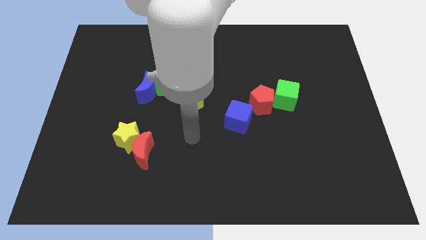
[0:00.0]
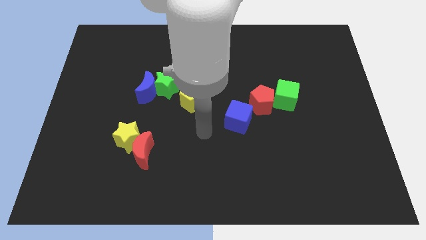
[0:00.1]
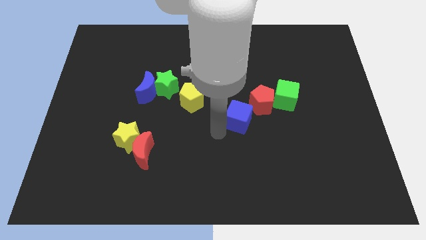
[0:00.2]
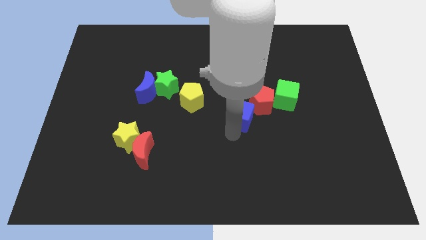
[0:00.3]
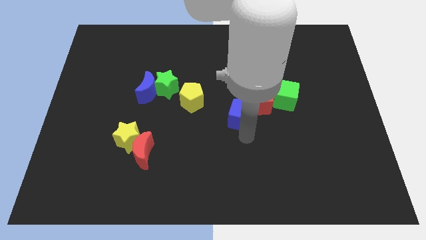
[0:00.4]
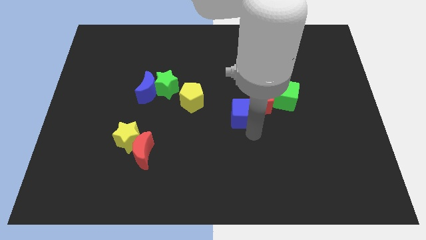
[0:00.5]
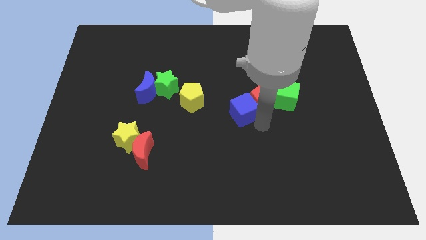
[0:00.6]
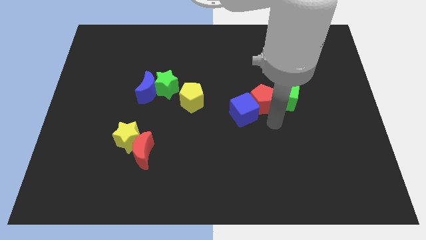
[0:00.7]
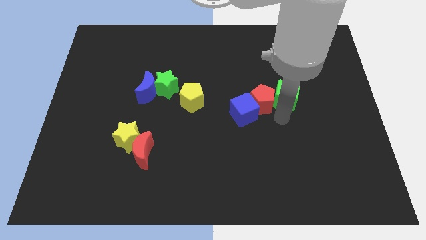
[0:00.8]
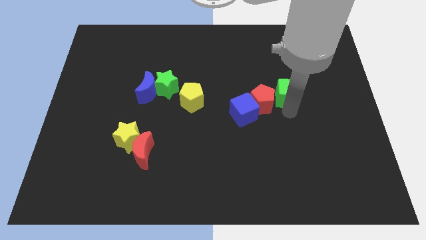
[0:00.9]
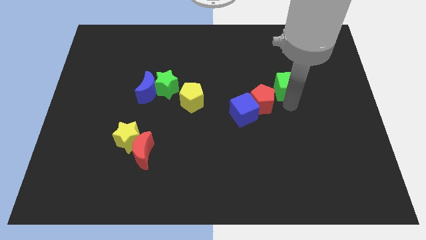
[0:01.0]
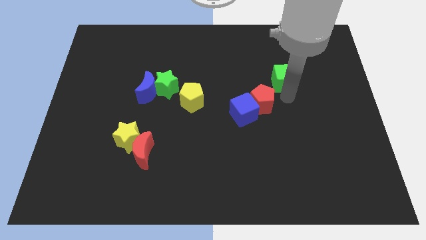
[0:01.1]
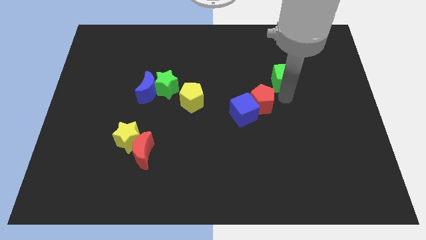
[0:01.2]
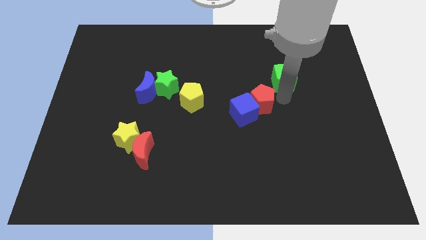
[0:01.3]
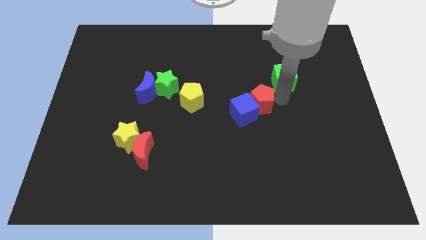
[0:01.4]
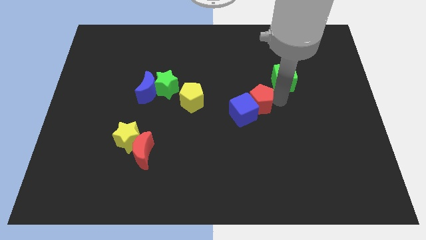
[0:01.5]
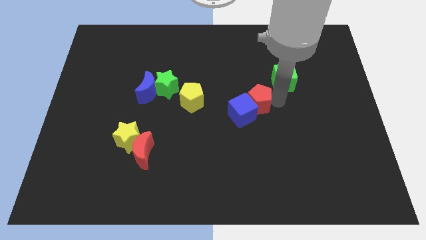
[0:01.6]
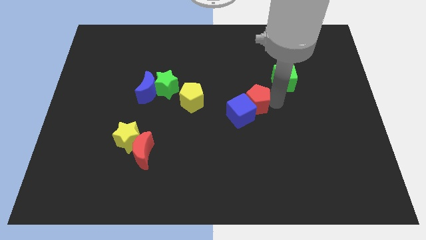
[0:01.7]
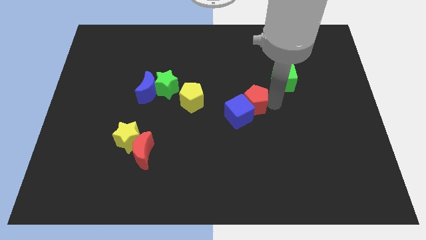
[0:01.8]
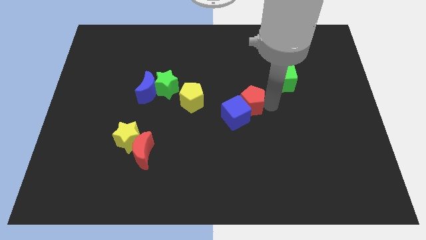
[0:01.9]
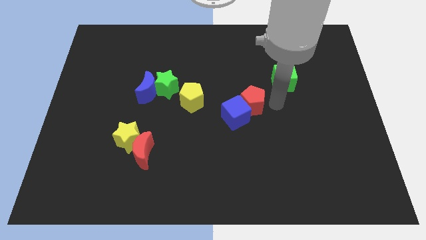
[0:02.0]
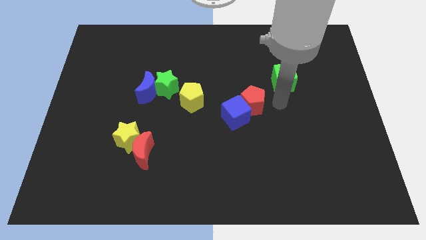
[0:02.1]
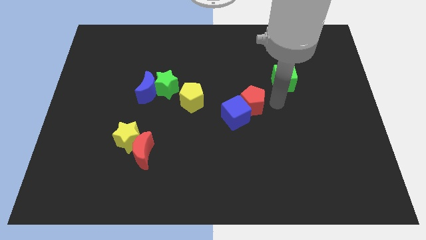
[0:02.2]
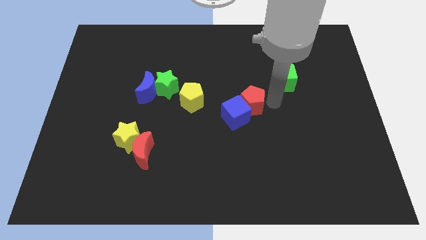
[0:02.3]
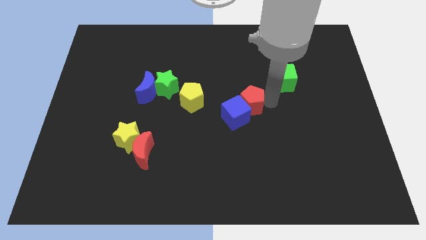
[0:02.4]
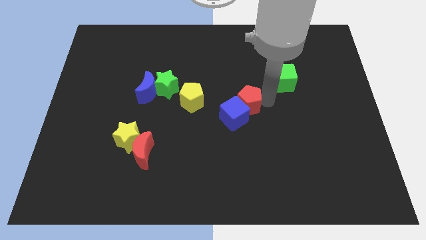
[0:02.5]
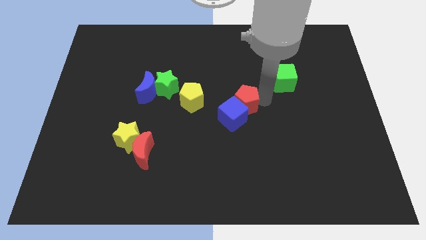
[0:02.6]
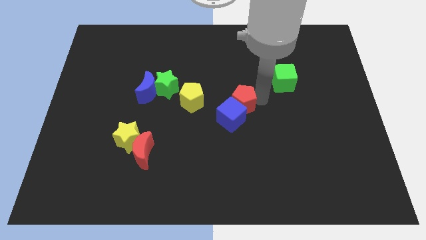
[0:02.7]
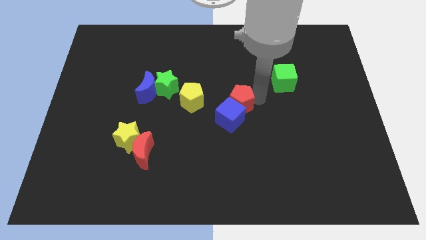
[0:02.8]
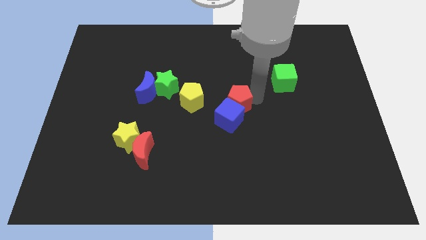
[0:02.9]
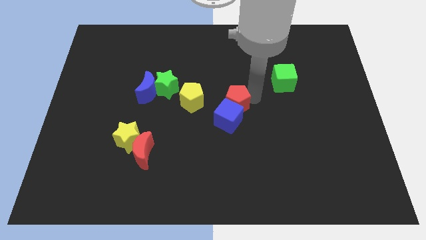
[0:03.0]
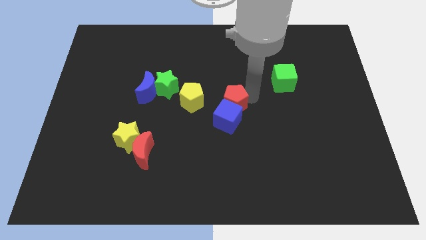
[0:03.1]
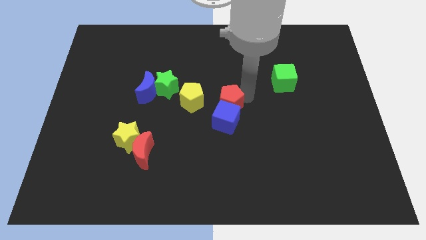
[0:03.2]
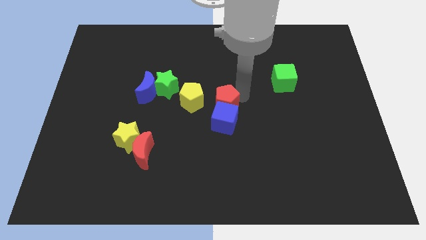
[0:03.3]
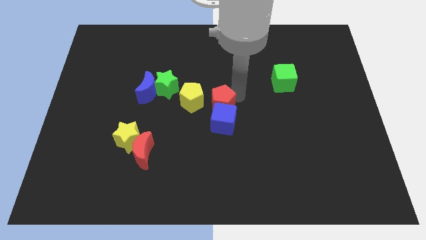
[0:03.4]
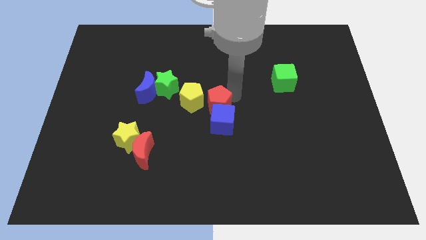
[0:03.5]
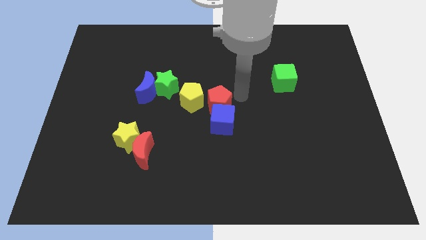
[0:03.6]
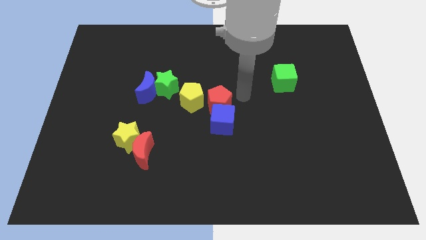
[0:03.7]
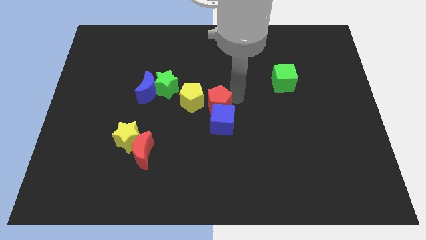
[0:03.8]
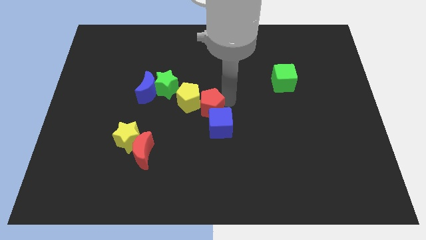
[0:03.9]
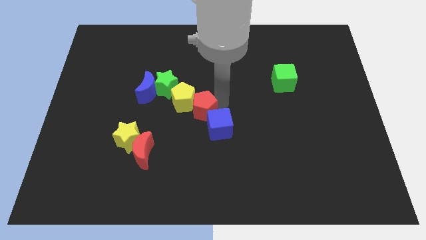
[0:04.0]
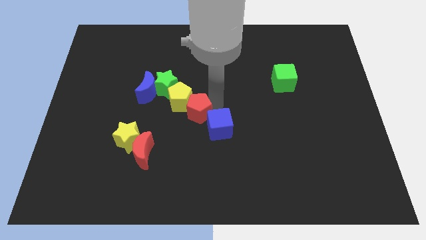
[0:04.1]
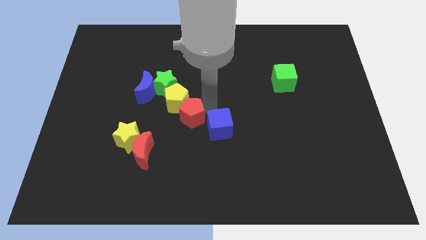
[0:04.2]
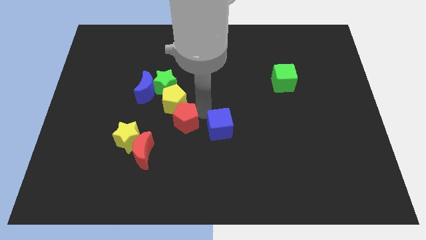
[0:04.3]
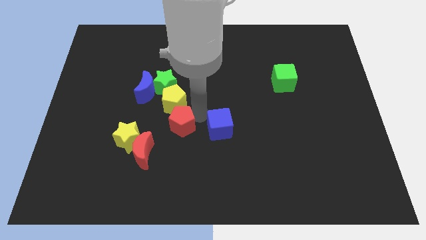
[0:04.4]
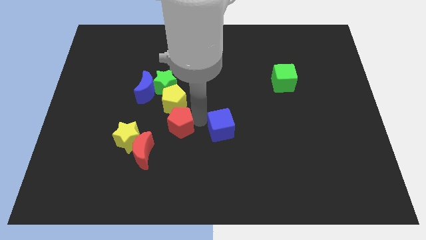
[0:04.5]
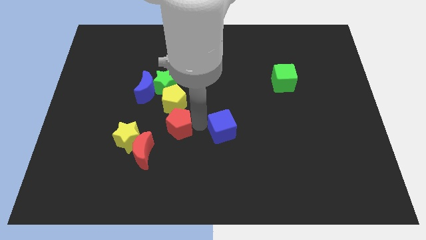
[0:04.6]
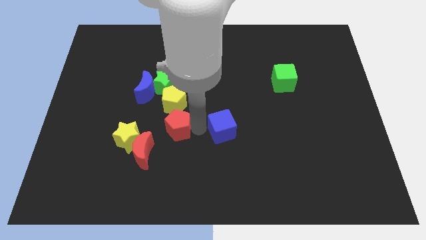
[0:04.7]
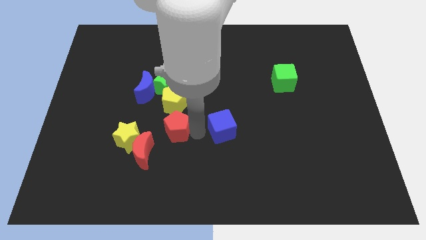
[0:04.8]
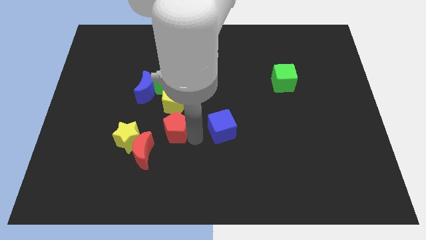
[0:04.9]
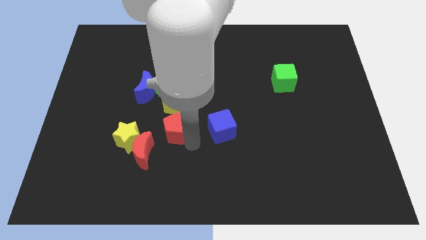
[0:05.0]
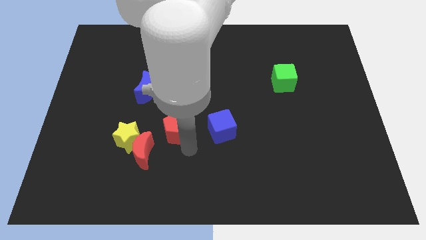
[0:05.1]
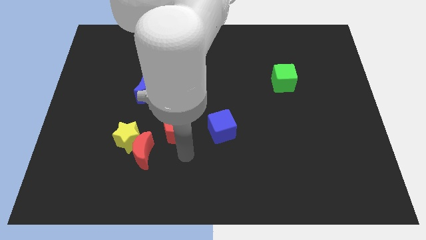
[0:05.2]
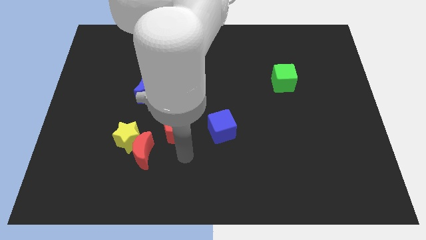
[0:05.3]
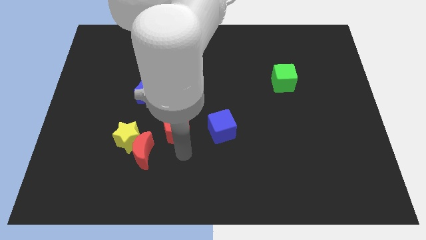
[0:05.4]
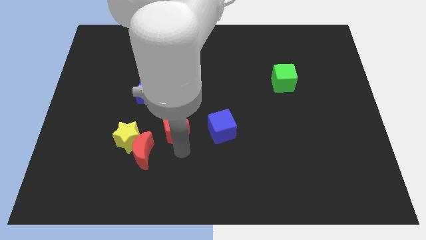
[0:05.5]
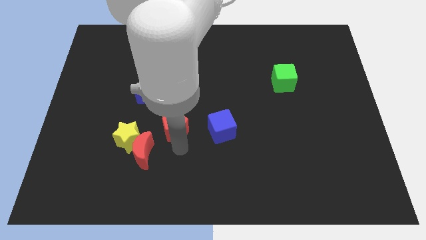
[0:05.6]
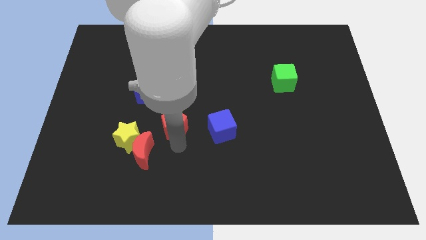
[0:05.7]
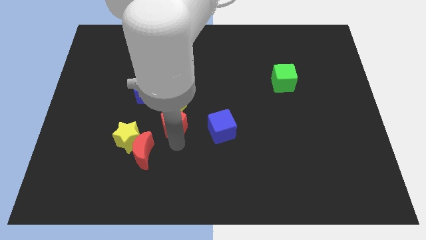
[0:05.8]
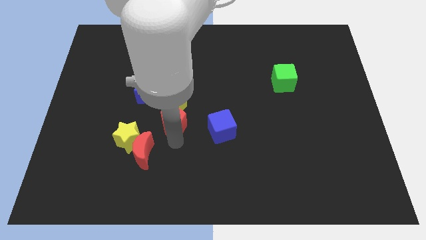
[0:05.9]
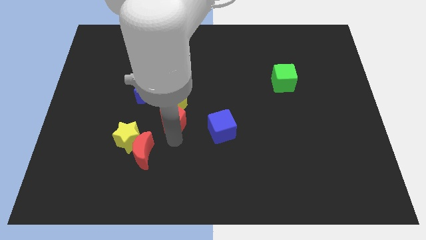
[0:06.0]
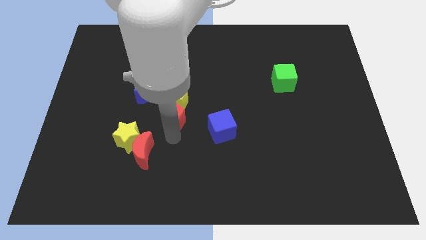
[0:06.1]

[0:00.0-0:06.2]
push the red pentagon left

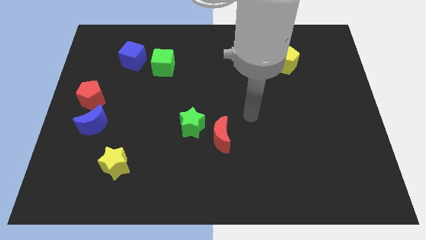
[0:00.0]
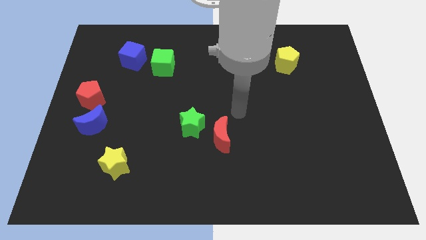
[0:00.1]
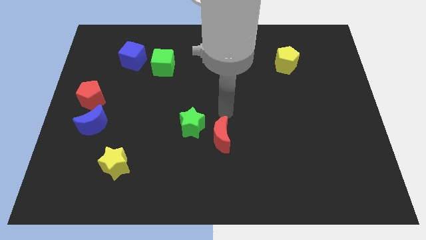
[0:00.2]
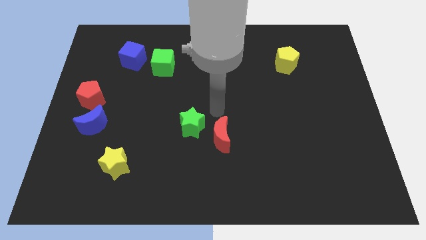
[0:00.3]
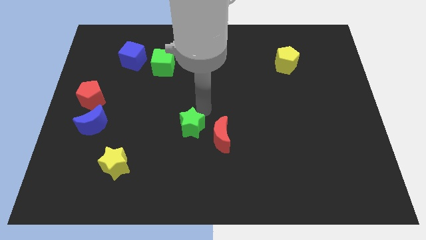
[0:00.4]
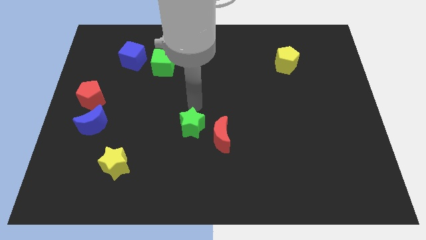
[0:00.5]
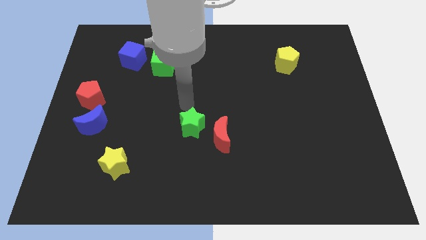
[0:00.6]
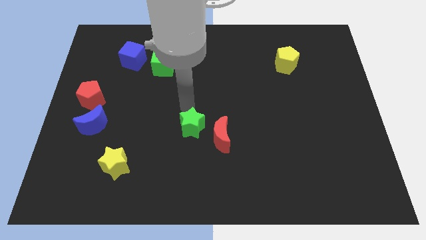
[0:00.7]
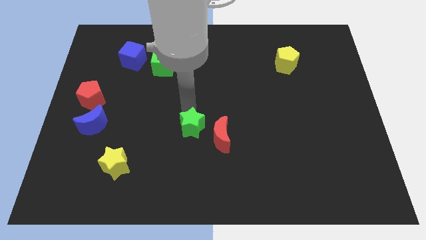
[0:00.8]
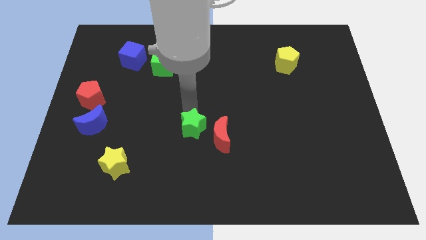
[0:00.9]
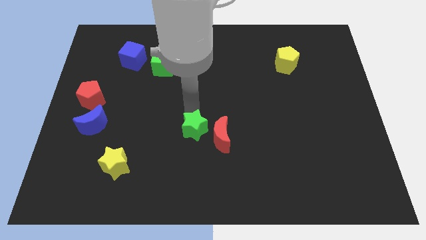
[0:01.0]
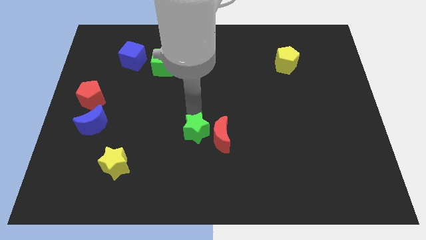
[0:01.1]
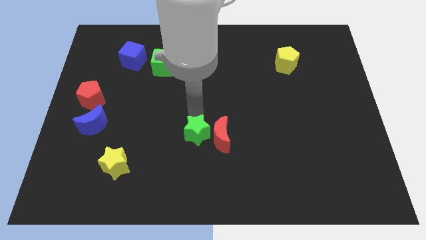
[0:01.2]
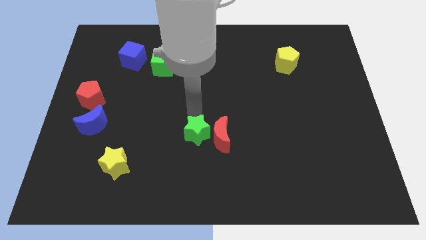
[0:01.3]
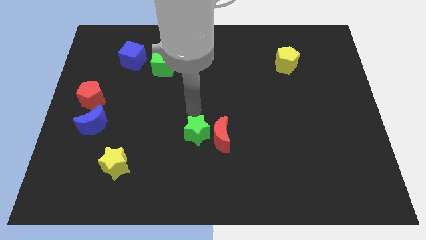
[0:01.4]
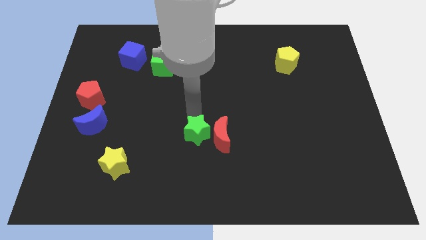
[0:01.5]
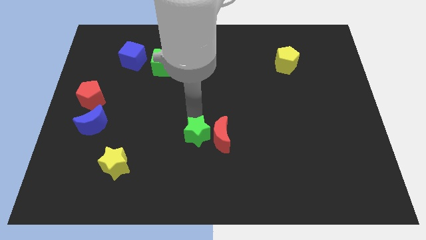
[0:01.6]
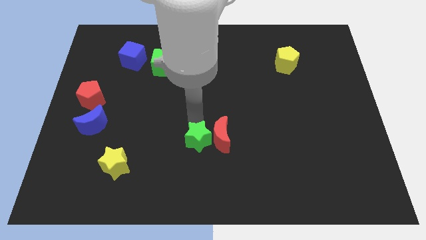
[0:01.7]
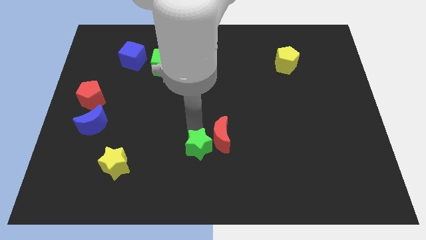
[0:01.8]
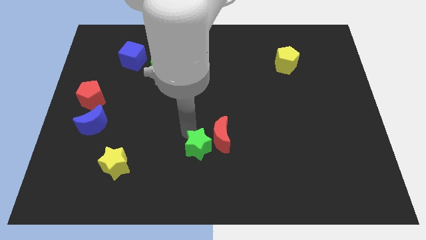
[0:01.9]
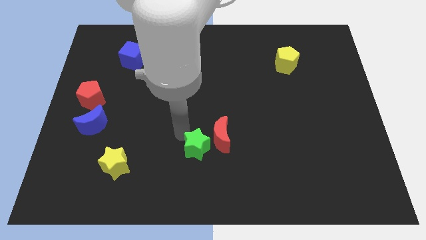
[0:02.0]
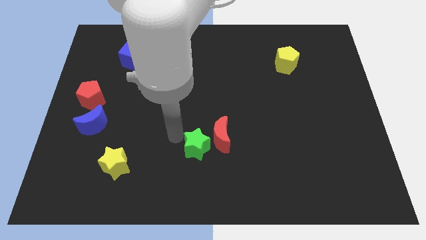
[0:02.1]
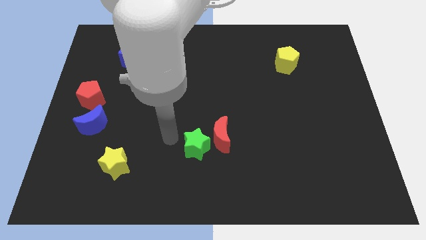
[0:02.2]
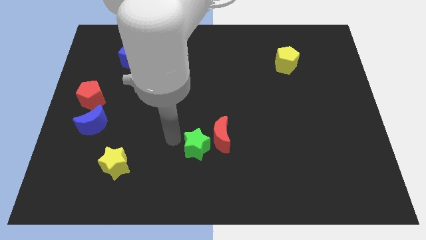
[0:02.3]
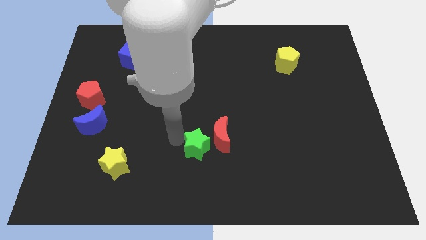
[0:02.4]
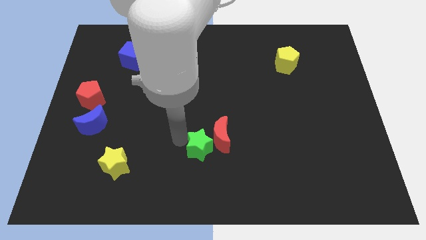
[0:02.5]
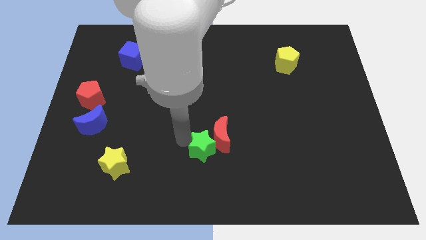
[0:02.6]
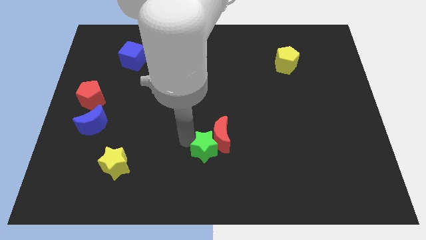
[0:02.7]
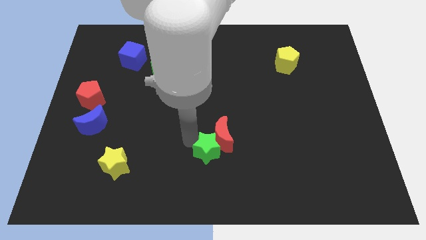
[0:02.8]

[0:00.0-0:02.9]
slide the green star a little diagonally downwards and to the right
